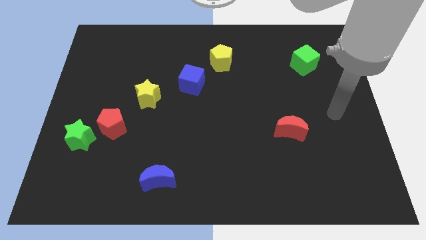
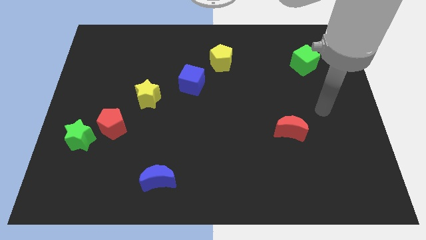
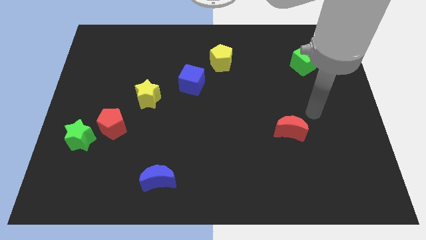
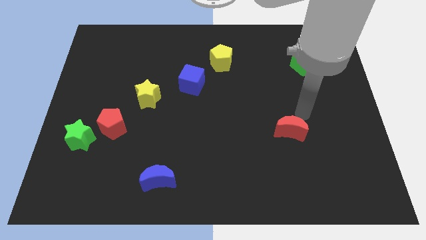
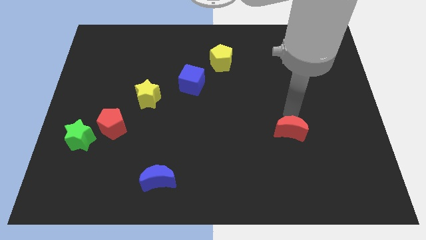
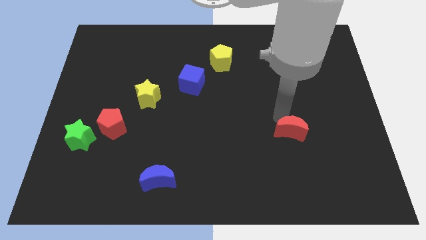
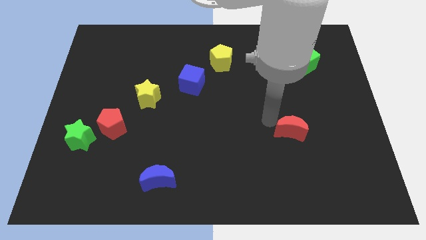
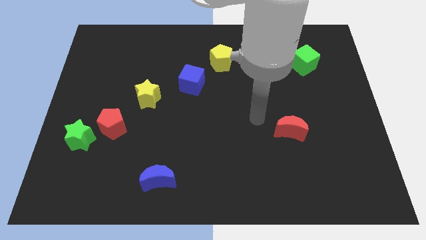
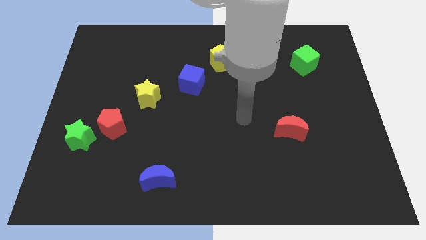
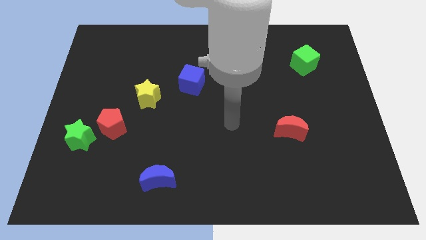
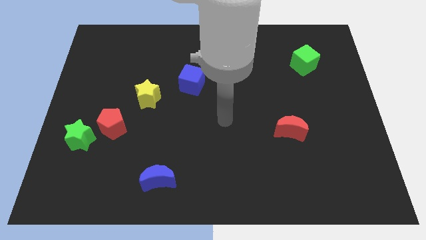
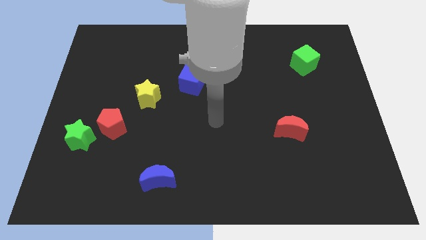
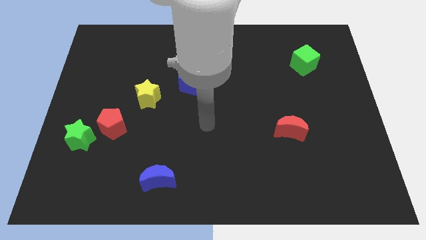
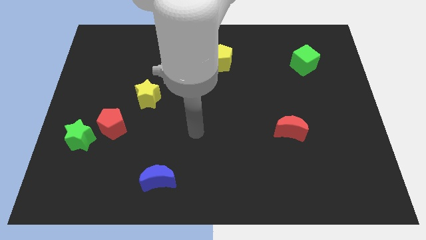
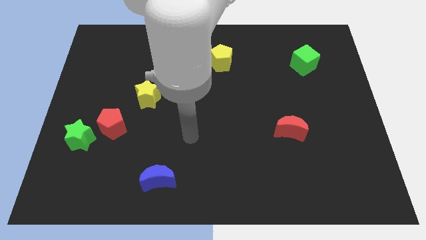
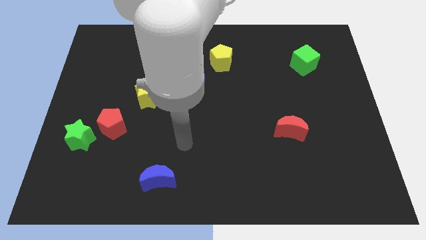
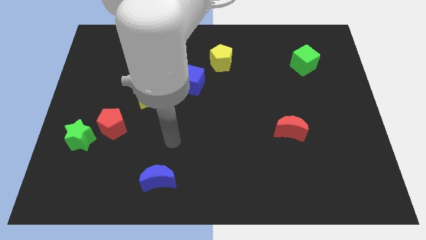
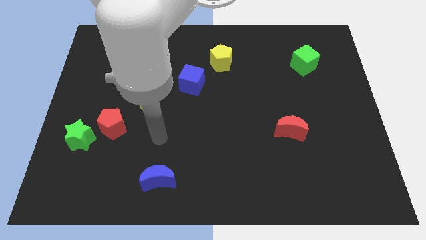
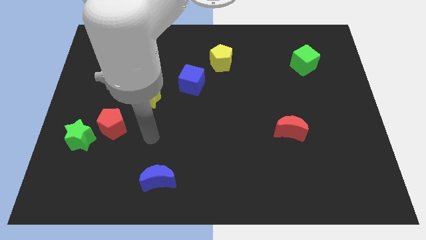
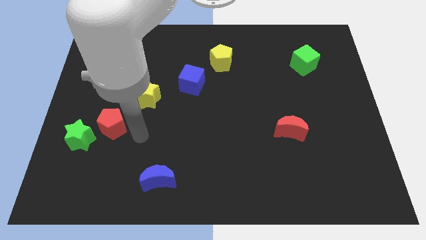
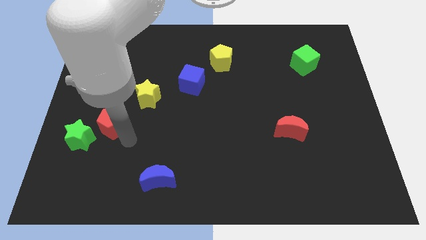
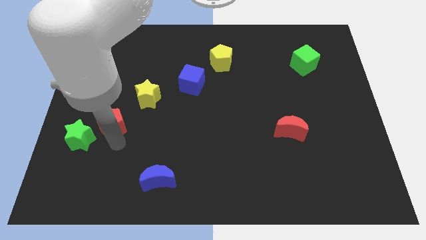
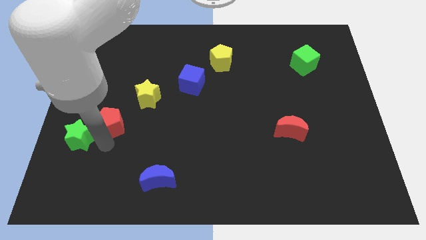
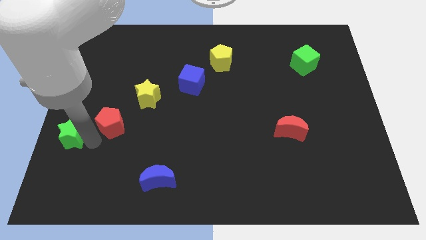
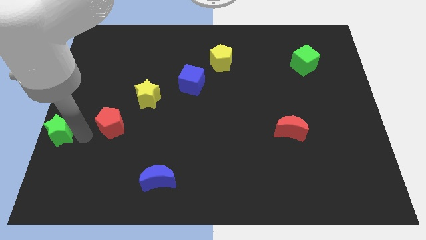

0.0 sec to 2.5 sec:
separate the red pentagon from the green star

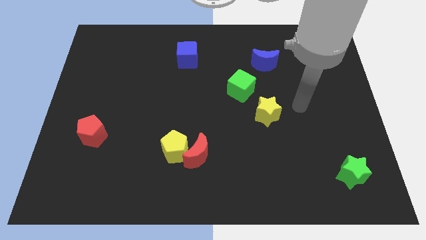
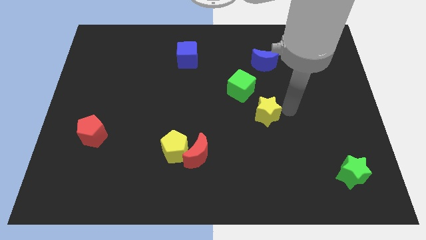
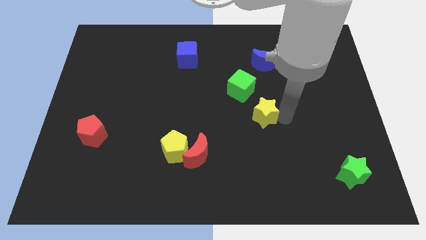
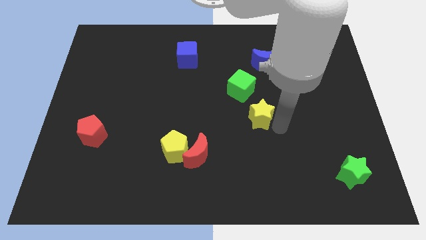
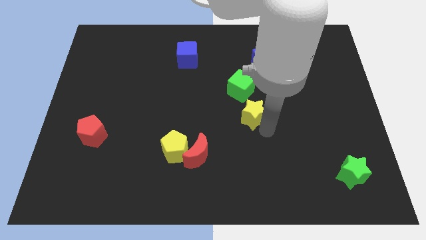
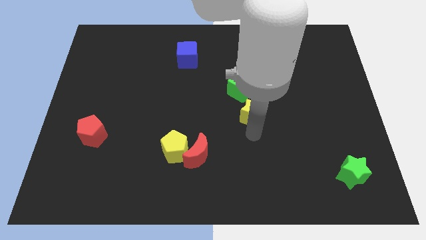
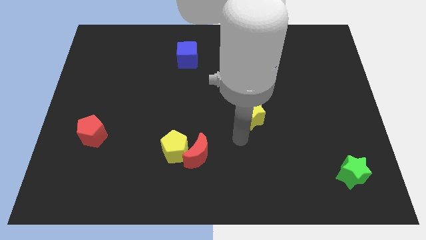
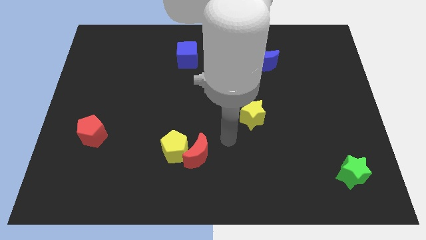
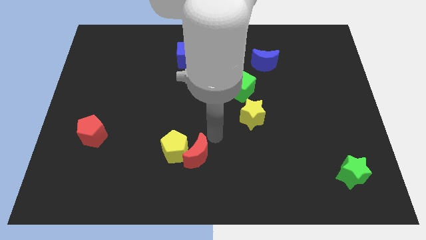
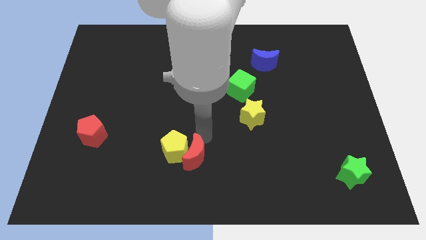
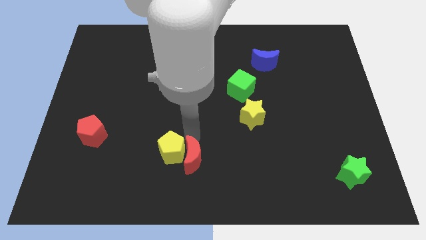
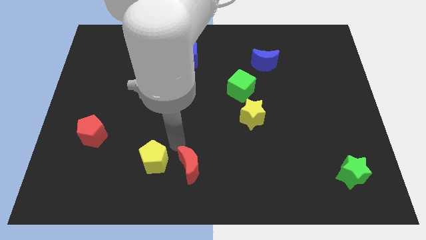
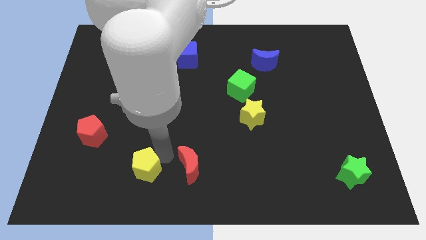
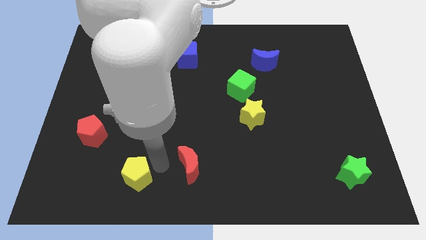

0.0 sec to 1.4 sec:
pull the red moon apart from the yellow pentagon

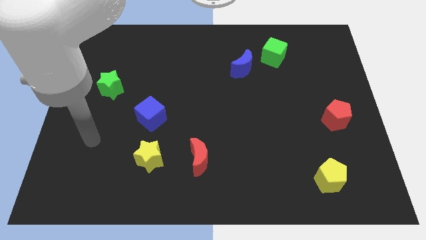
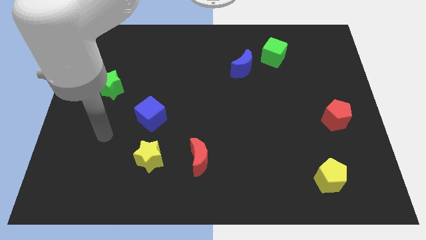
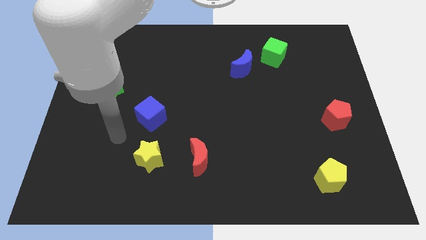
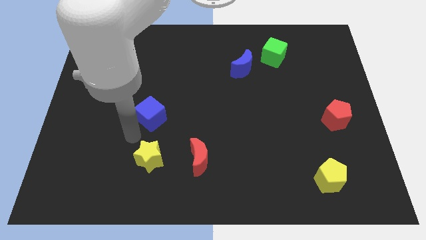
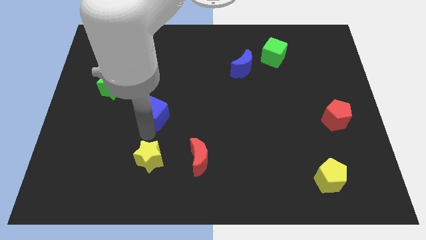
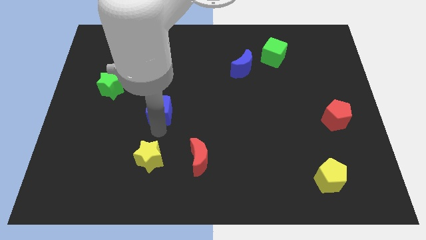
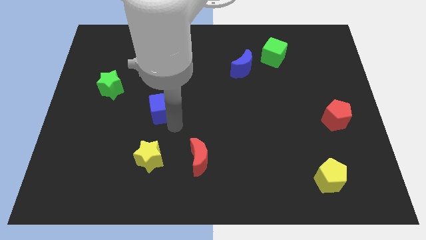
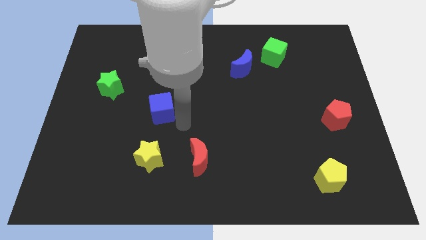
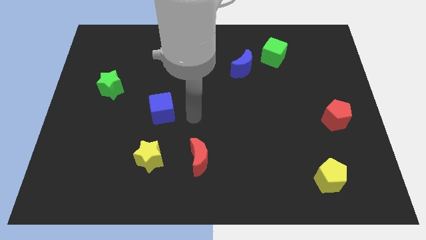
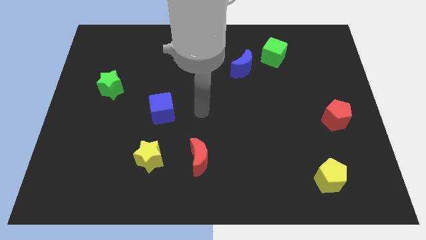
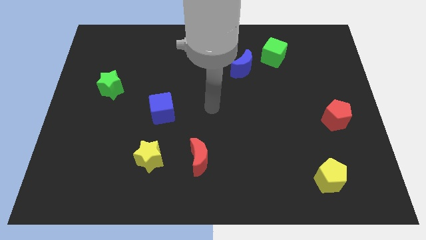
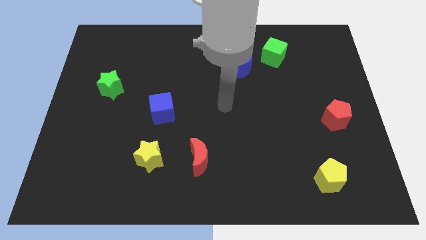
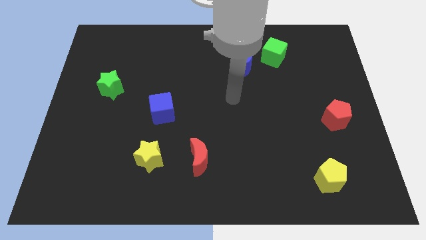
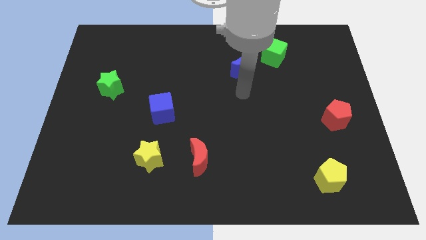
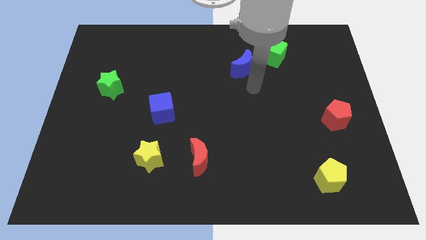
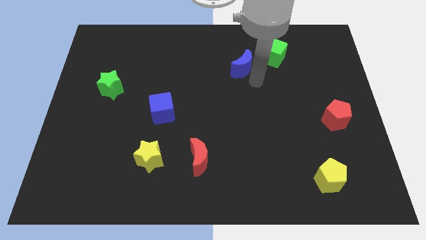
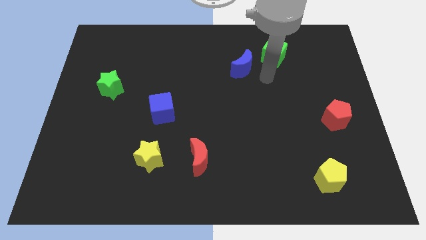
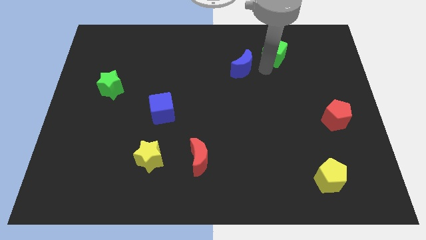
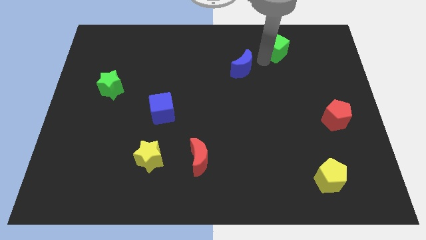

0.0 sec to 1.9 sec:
move the blue moon away from the green cube

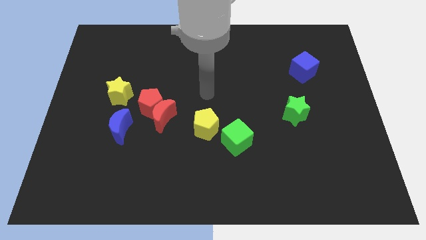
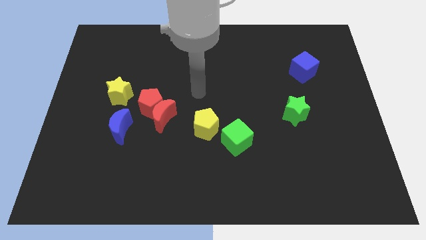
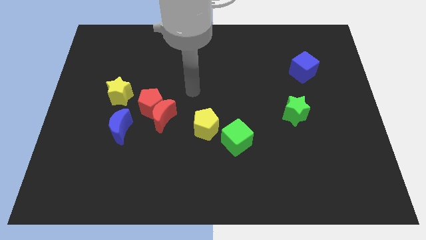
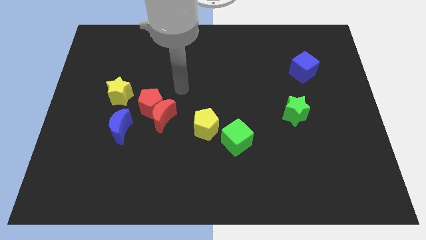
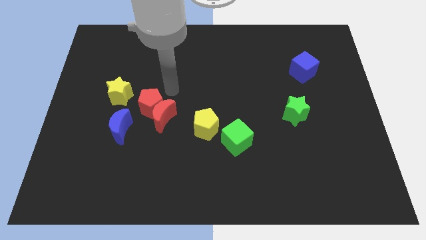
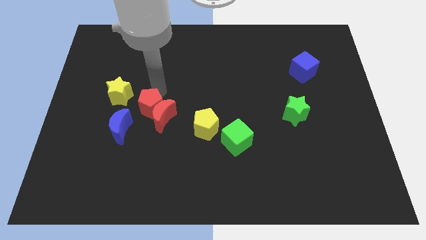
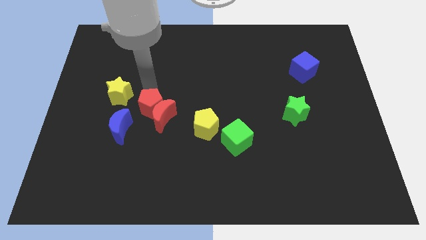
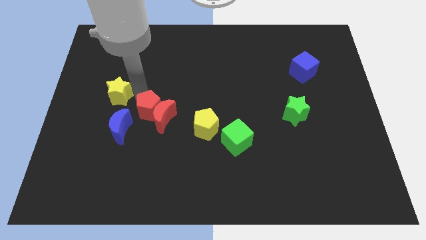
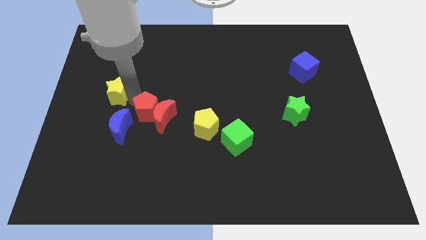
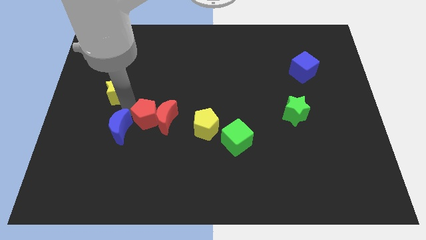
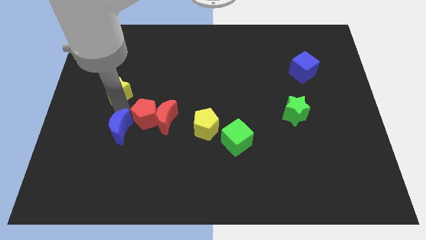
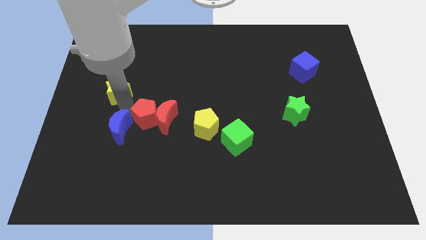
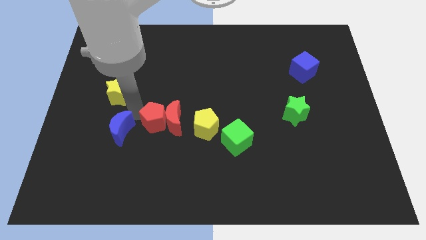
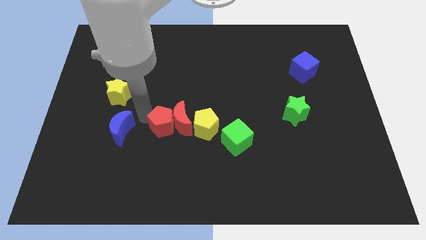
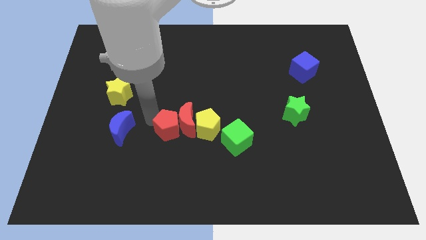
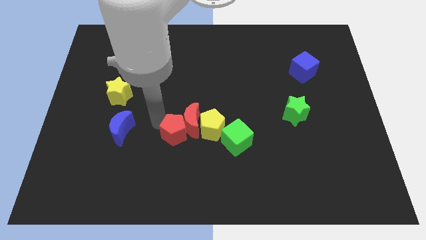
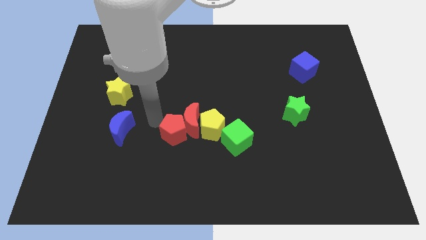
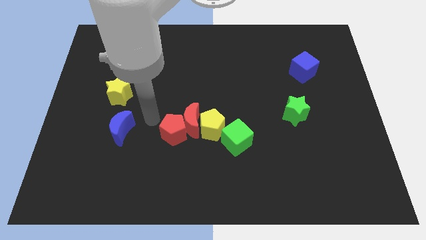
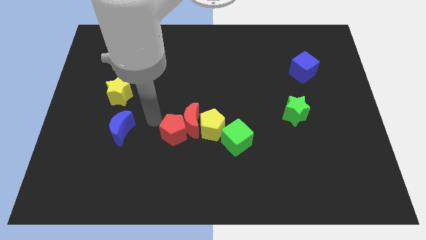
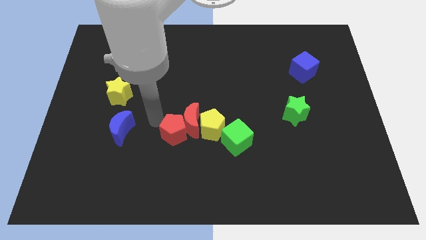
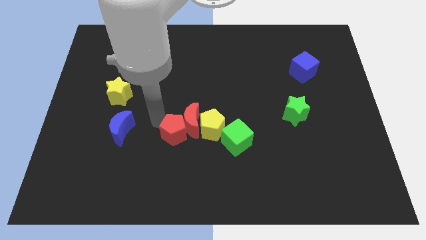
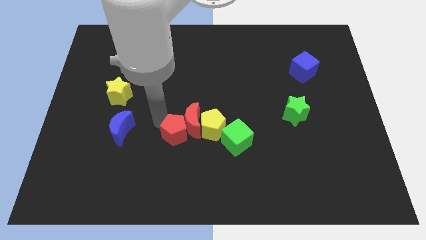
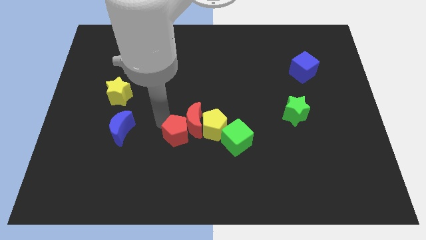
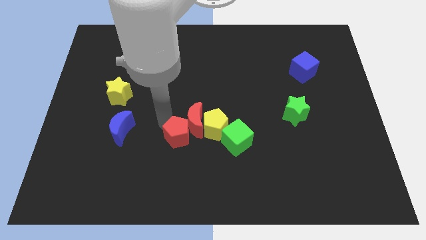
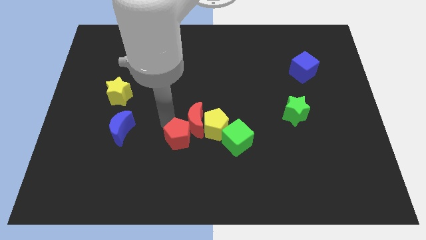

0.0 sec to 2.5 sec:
move the red pentagon away from the group

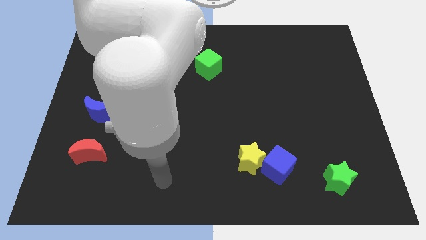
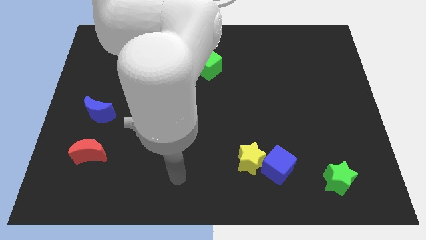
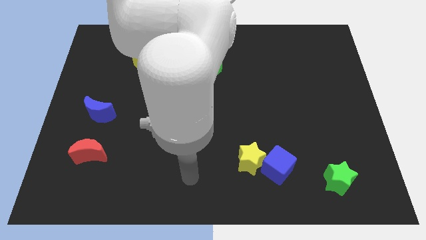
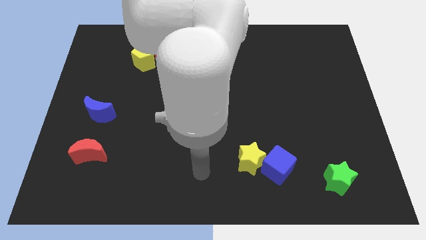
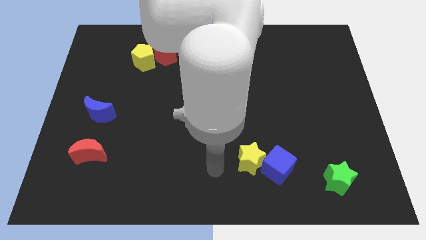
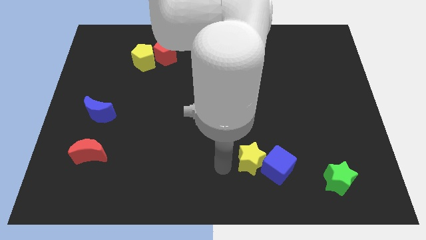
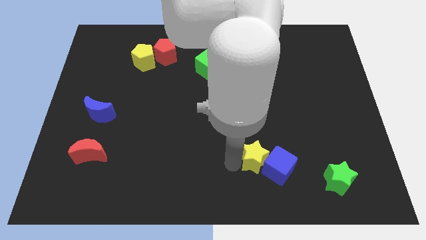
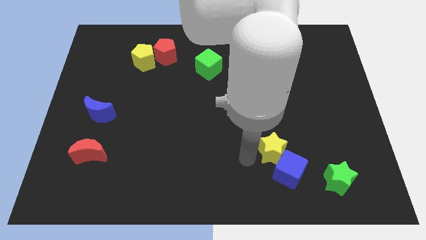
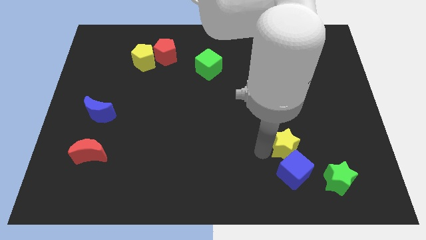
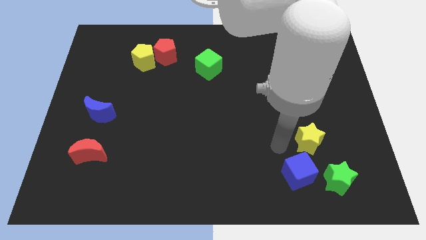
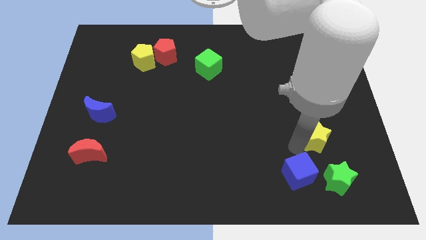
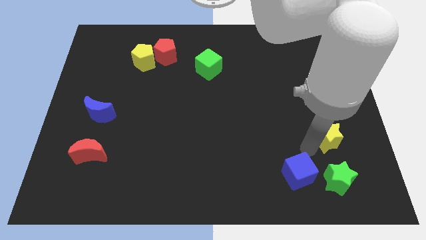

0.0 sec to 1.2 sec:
pull the blue cube apart from the yellow star
